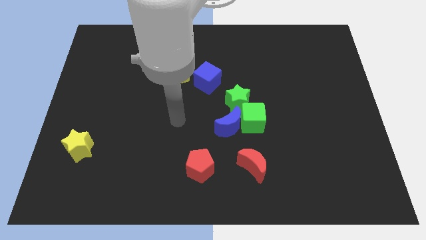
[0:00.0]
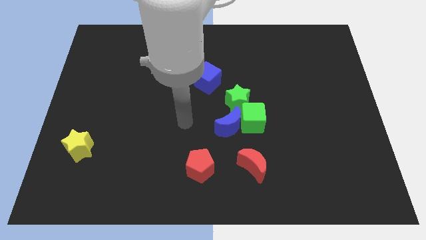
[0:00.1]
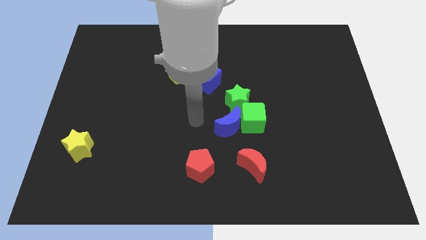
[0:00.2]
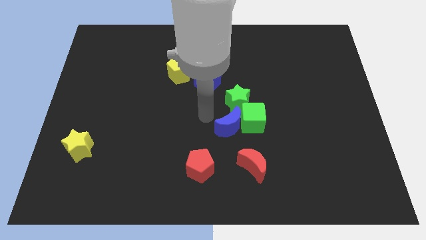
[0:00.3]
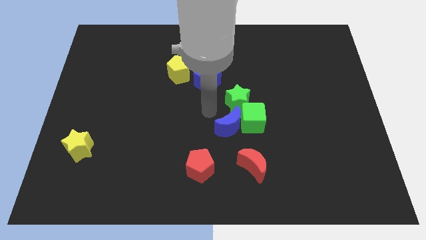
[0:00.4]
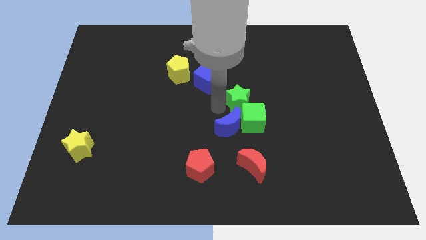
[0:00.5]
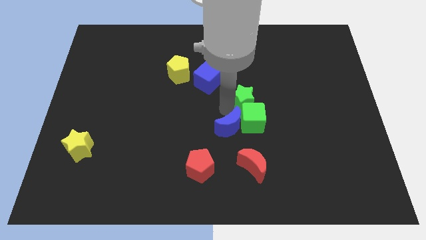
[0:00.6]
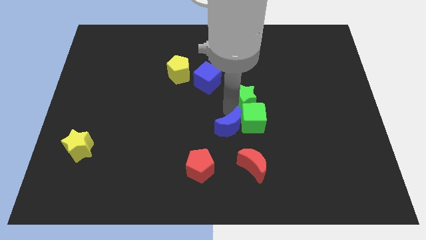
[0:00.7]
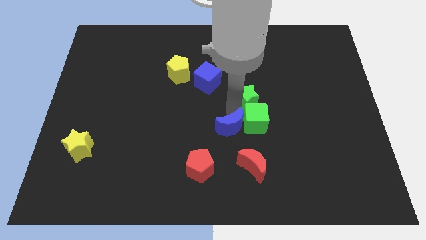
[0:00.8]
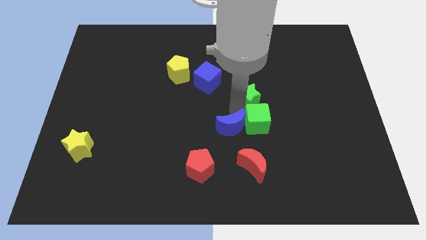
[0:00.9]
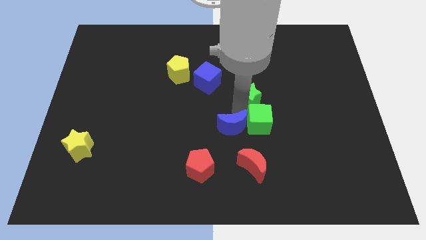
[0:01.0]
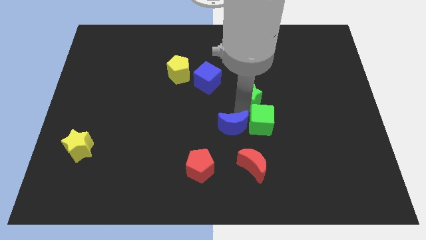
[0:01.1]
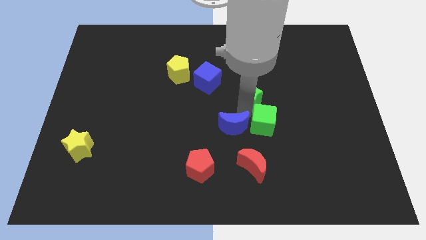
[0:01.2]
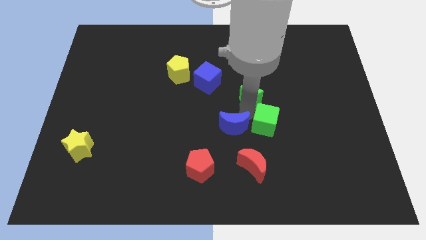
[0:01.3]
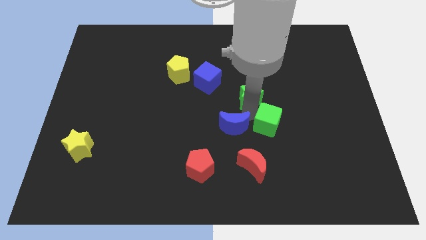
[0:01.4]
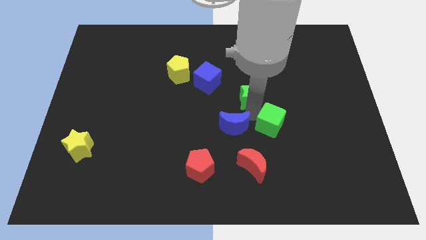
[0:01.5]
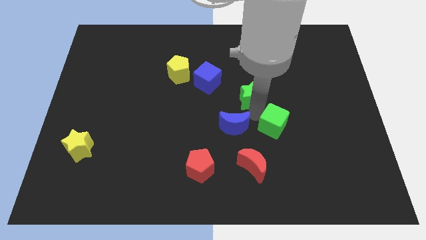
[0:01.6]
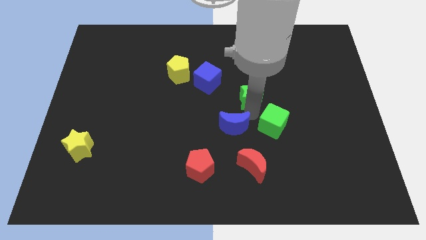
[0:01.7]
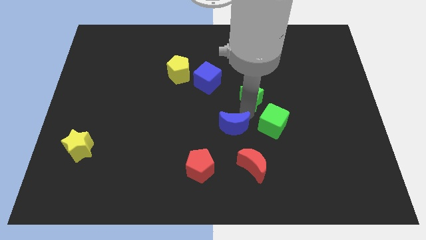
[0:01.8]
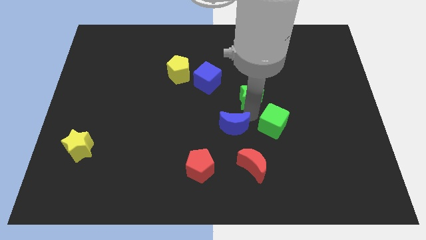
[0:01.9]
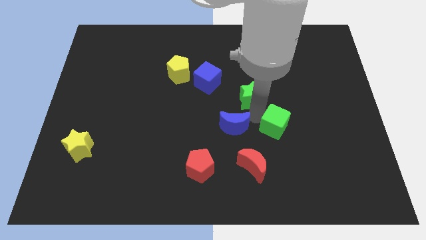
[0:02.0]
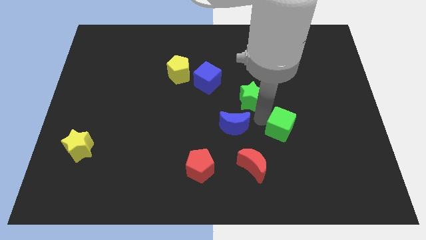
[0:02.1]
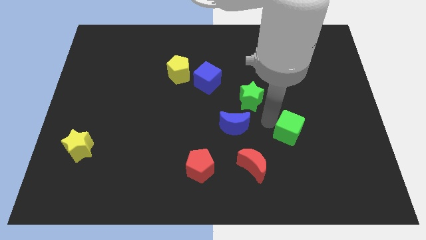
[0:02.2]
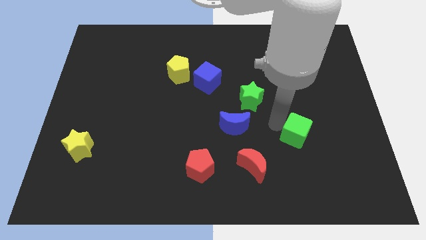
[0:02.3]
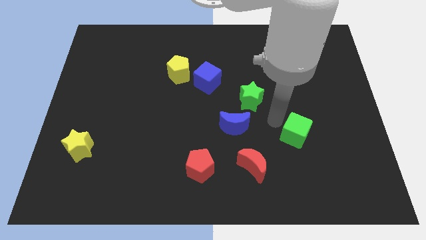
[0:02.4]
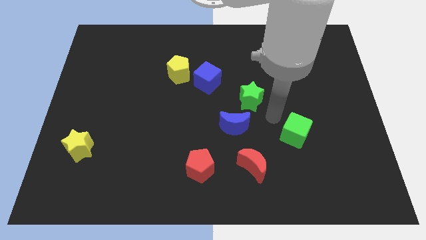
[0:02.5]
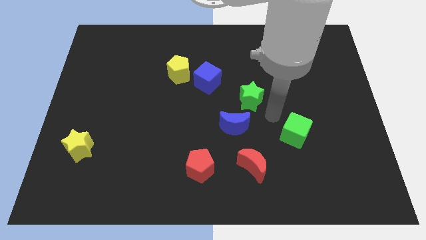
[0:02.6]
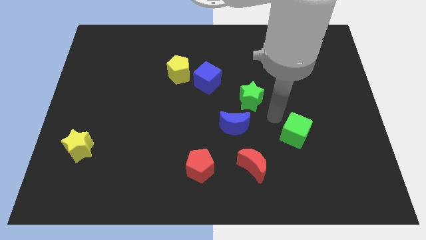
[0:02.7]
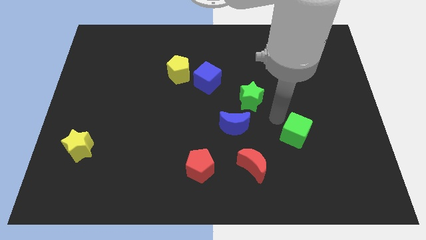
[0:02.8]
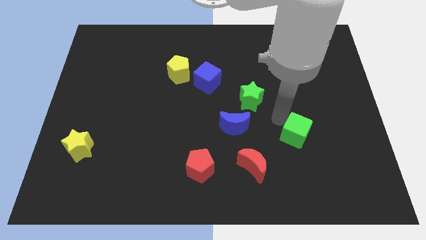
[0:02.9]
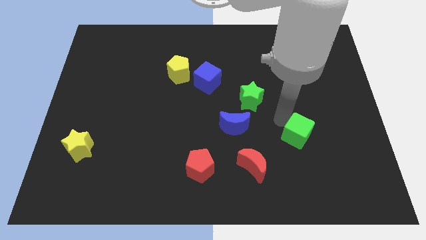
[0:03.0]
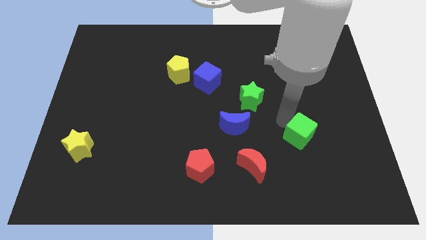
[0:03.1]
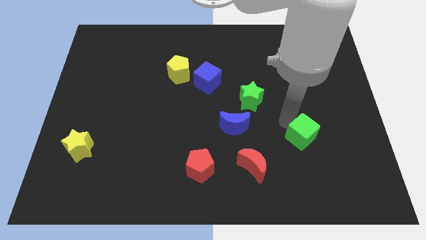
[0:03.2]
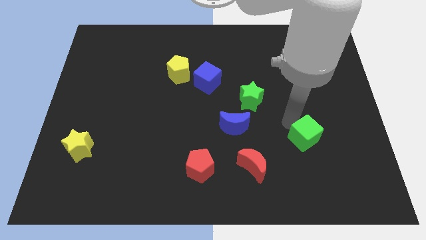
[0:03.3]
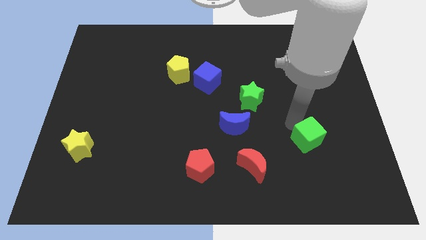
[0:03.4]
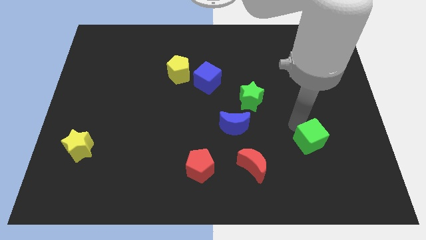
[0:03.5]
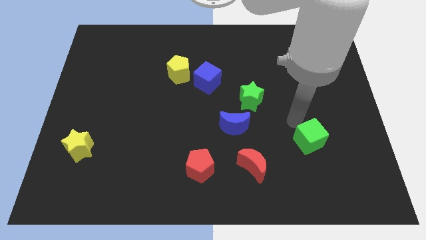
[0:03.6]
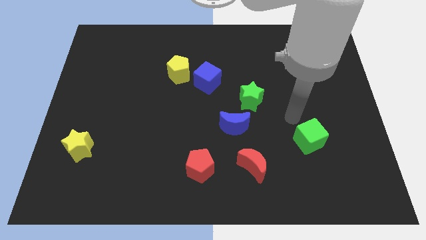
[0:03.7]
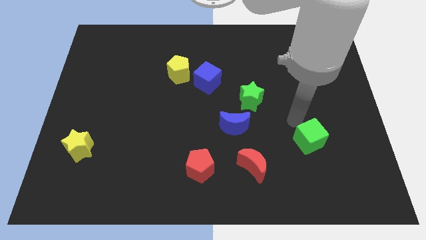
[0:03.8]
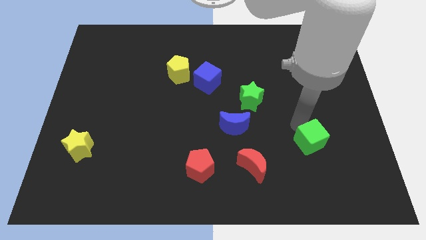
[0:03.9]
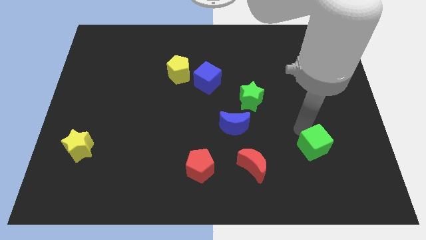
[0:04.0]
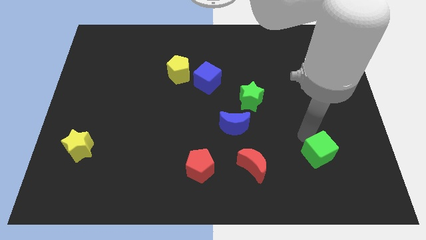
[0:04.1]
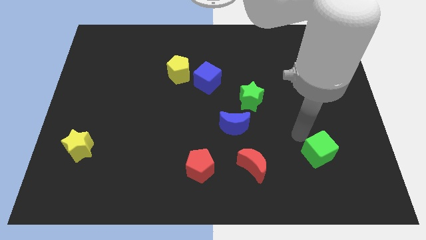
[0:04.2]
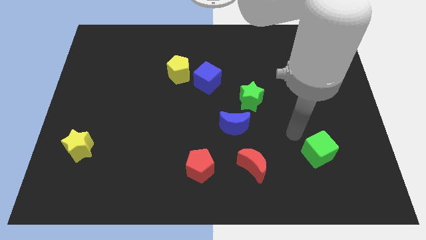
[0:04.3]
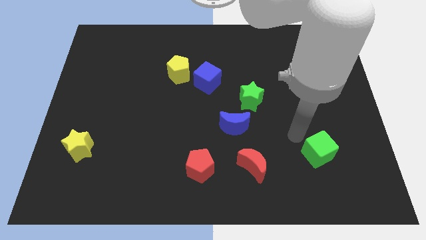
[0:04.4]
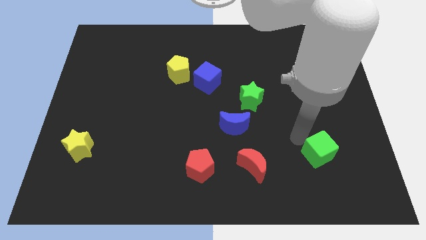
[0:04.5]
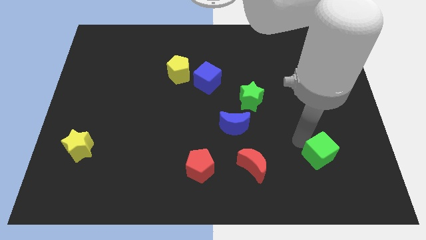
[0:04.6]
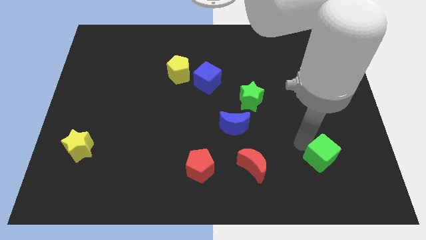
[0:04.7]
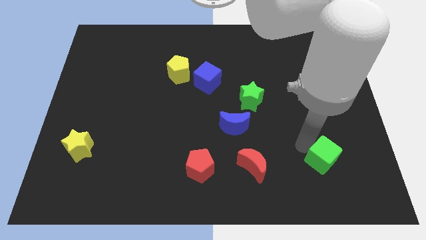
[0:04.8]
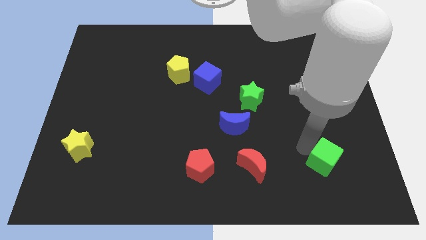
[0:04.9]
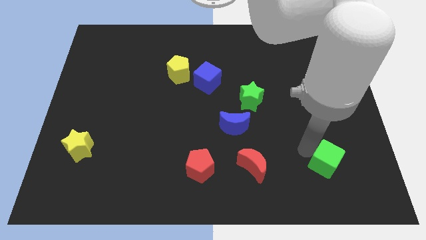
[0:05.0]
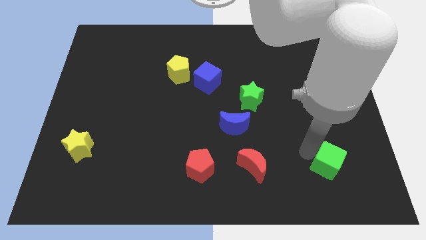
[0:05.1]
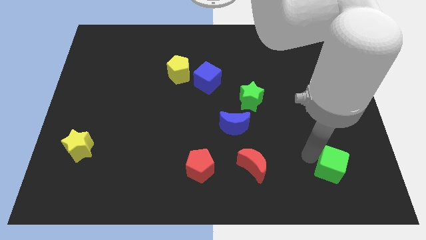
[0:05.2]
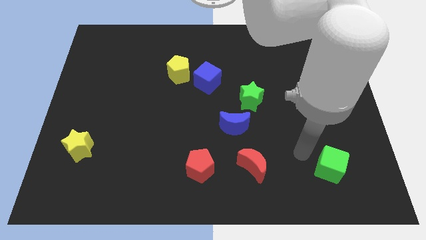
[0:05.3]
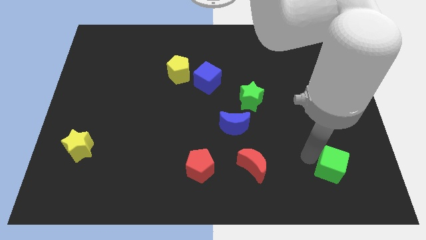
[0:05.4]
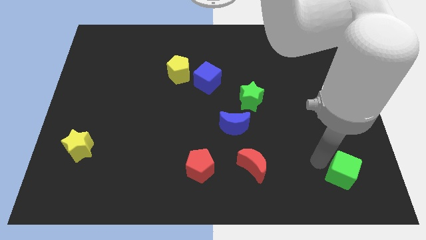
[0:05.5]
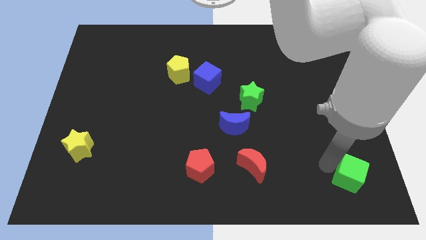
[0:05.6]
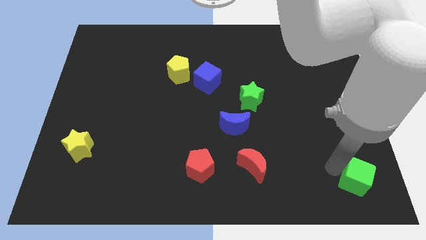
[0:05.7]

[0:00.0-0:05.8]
slide the green cube to the bottom right

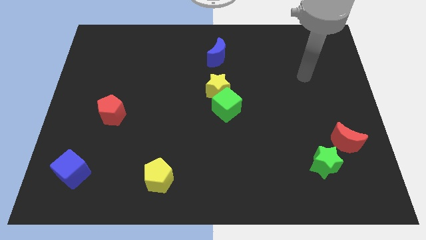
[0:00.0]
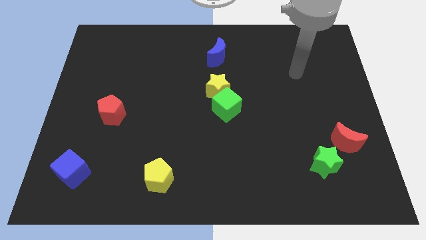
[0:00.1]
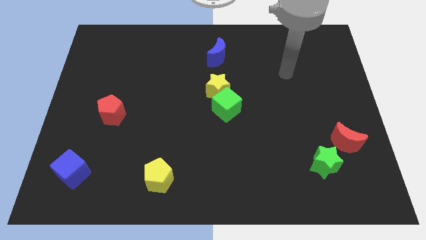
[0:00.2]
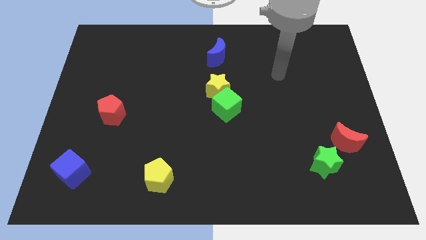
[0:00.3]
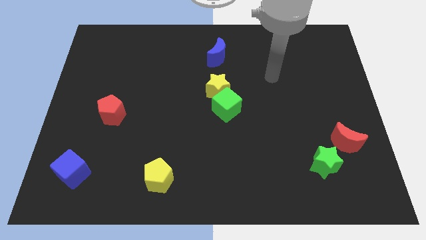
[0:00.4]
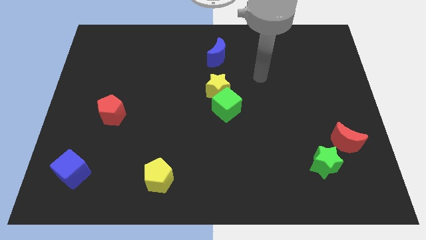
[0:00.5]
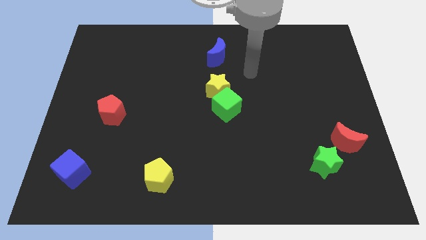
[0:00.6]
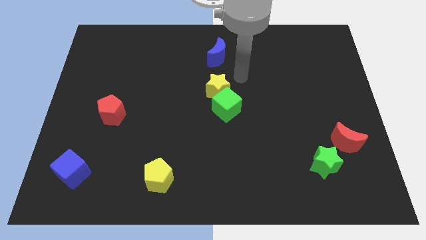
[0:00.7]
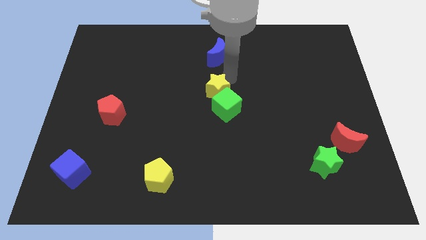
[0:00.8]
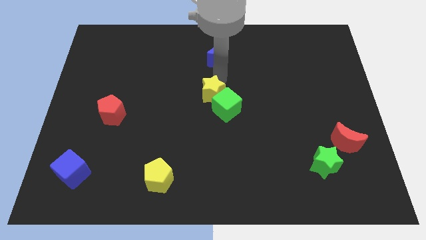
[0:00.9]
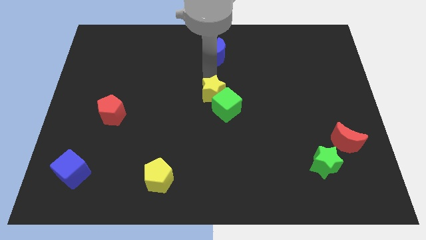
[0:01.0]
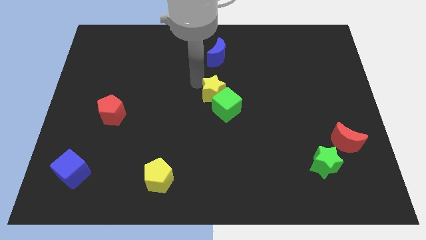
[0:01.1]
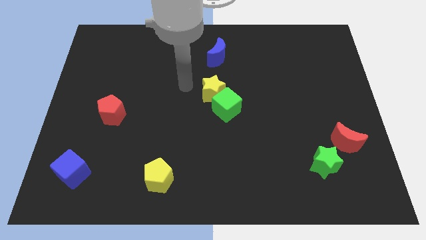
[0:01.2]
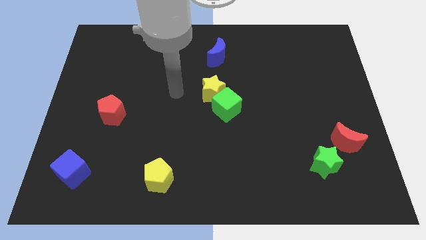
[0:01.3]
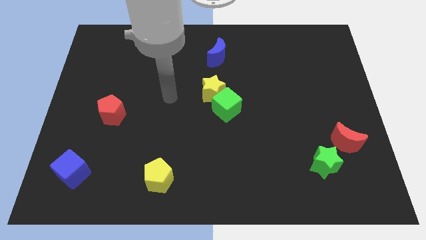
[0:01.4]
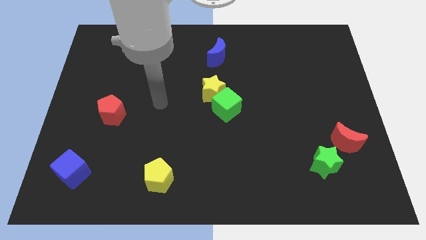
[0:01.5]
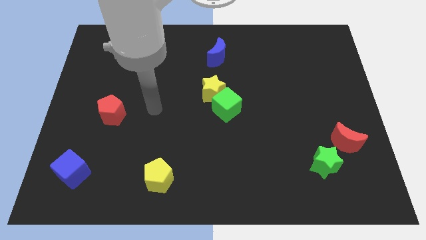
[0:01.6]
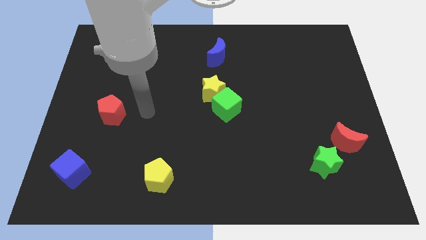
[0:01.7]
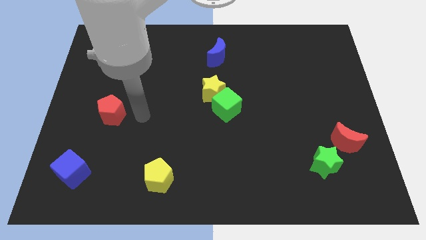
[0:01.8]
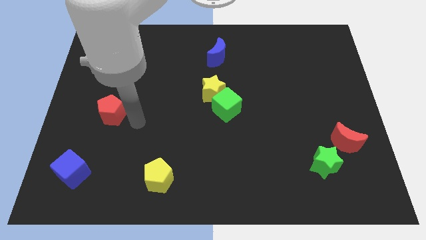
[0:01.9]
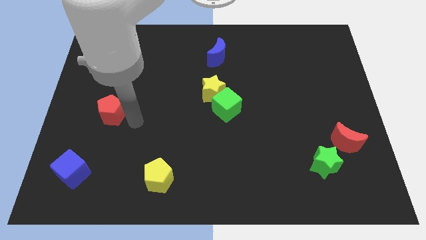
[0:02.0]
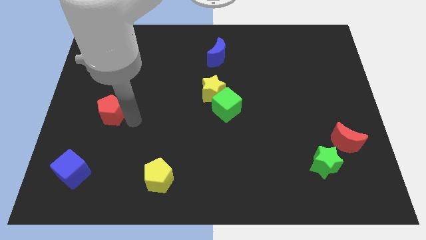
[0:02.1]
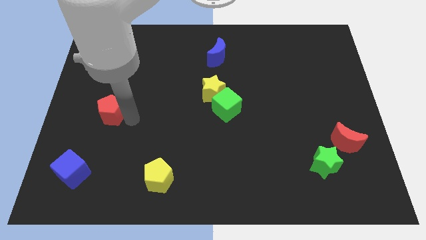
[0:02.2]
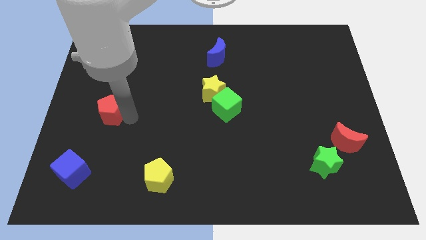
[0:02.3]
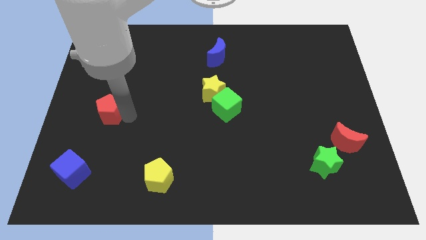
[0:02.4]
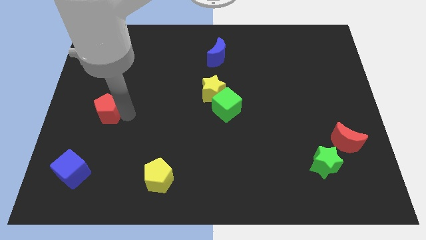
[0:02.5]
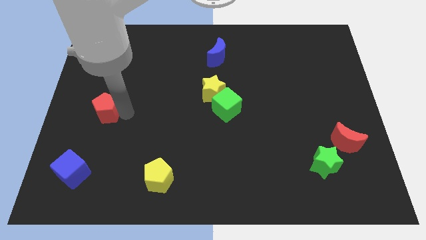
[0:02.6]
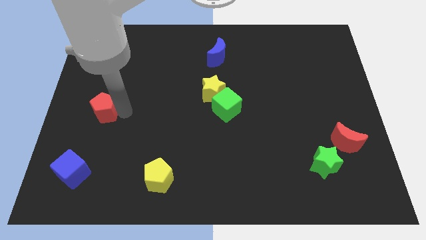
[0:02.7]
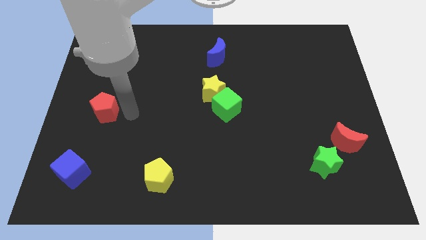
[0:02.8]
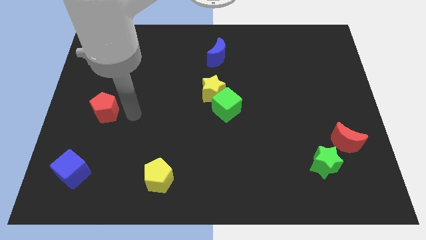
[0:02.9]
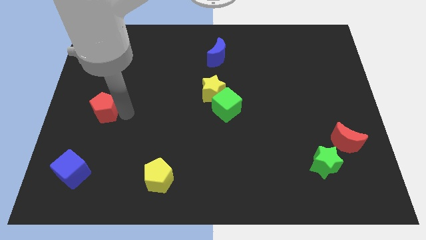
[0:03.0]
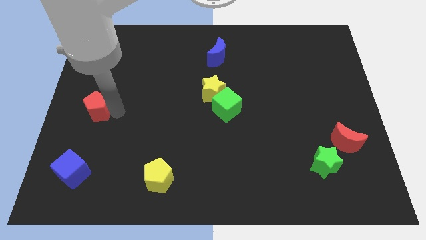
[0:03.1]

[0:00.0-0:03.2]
move the red pentagon to the center left
